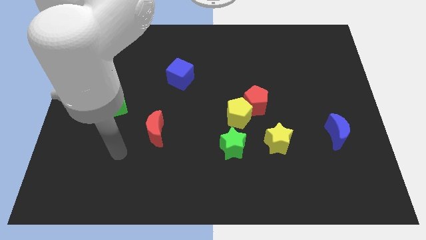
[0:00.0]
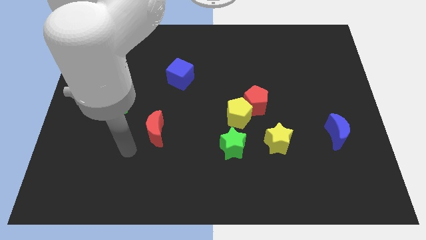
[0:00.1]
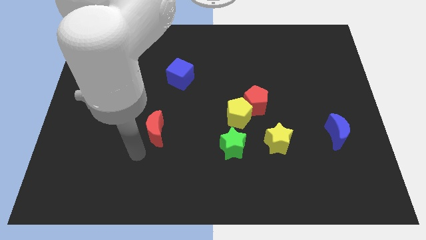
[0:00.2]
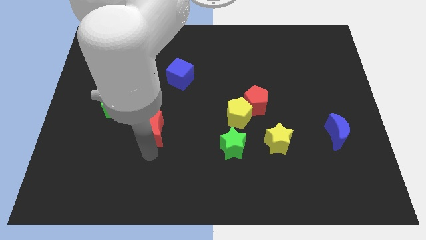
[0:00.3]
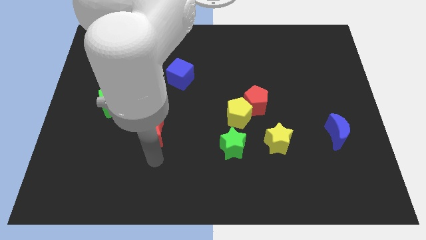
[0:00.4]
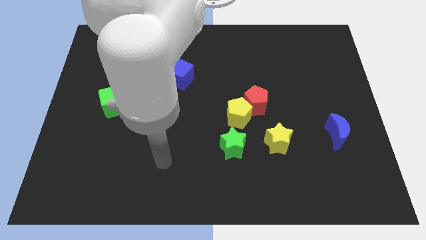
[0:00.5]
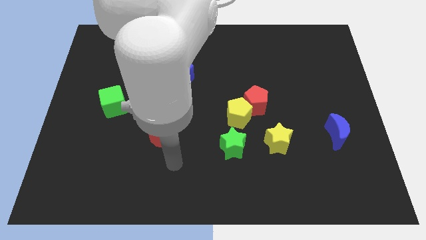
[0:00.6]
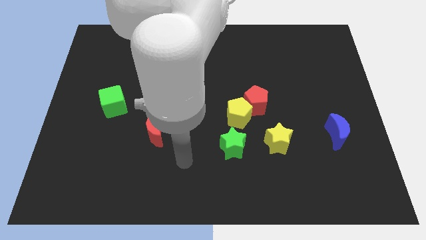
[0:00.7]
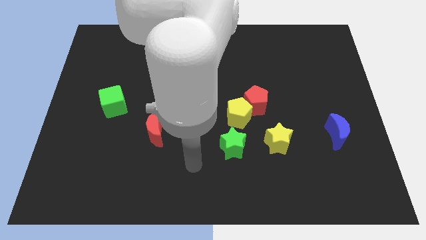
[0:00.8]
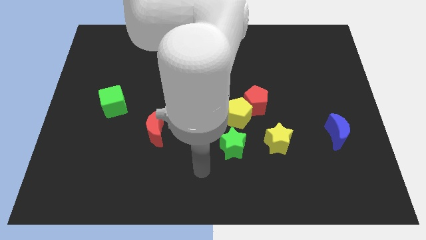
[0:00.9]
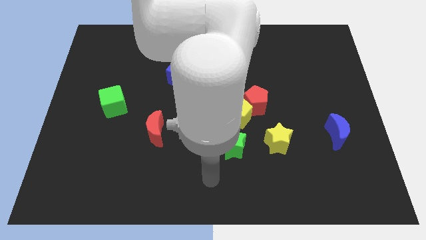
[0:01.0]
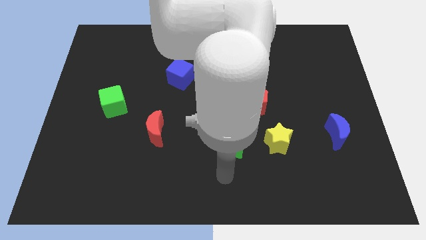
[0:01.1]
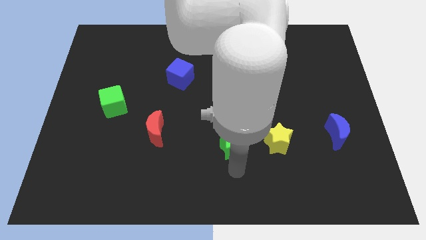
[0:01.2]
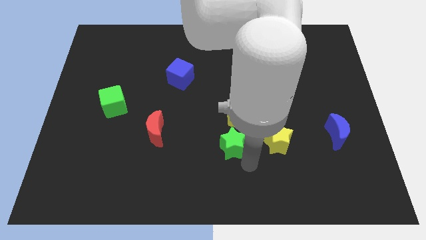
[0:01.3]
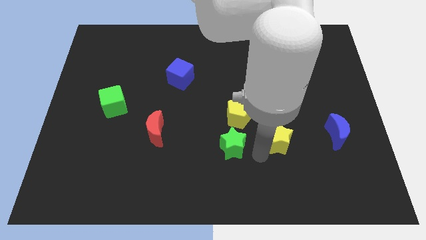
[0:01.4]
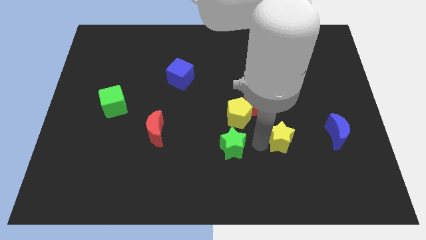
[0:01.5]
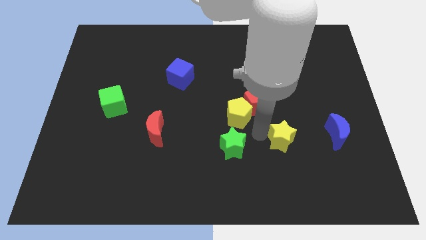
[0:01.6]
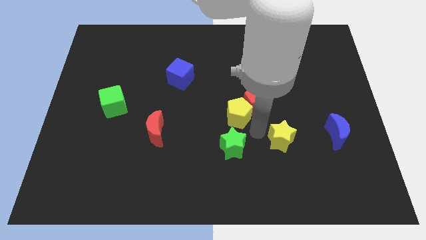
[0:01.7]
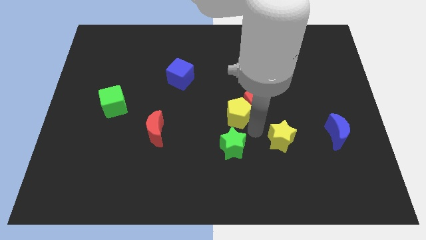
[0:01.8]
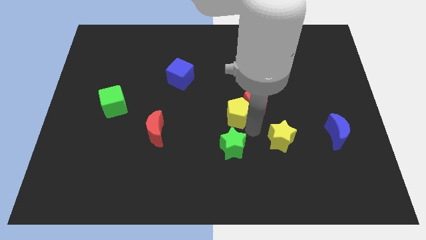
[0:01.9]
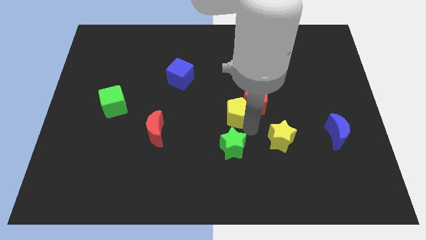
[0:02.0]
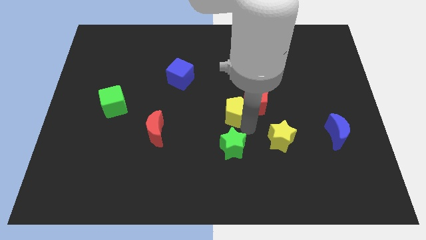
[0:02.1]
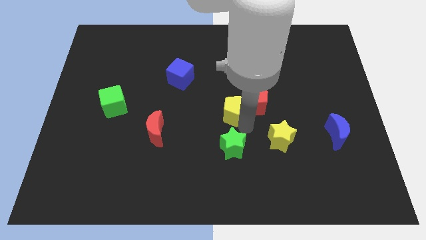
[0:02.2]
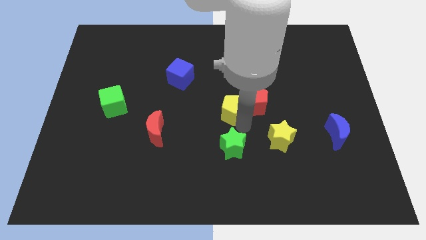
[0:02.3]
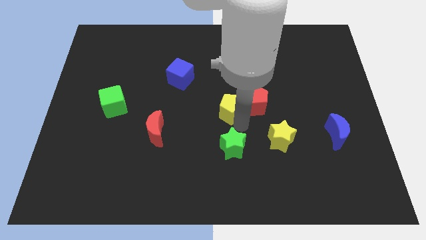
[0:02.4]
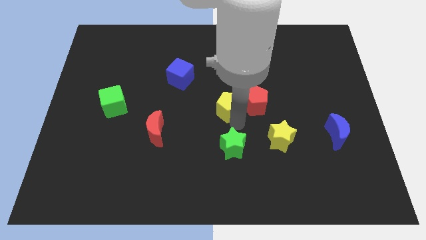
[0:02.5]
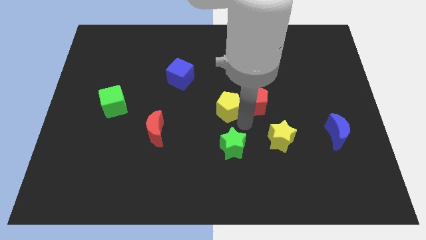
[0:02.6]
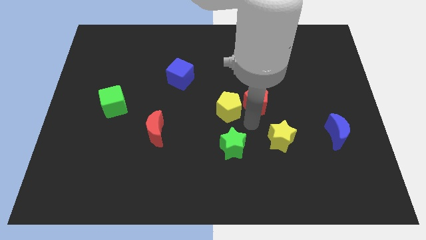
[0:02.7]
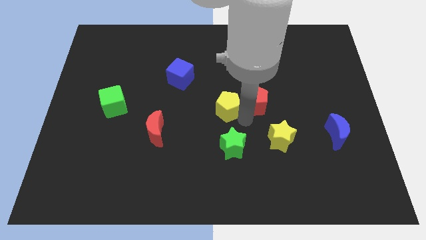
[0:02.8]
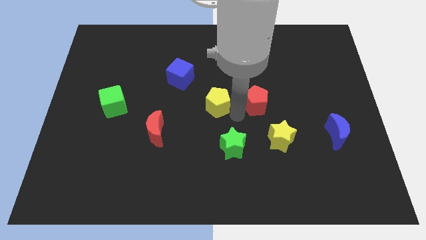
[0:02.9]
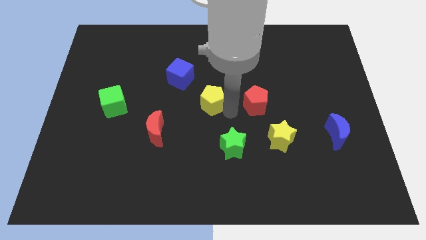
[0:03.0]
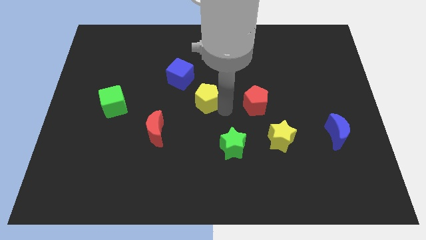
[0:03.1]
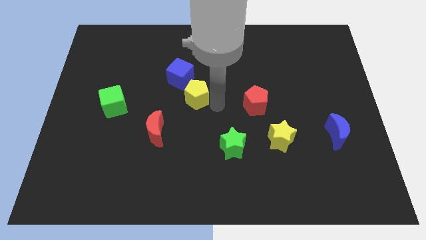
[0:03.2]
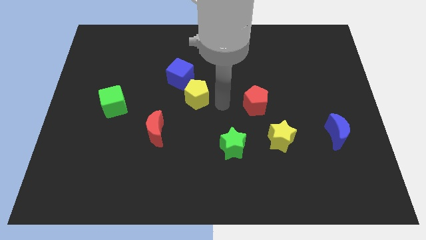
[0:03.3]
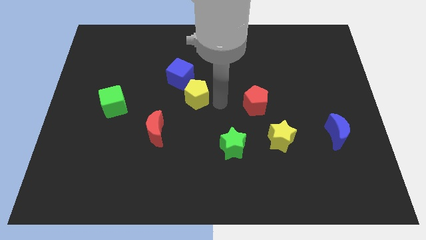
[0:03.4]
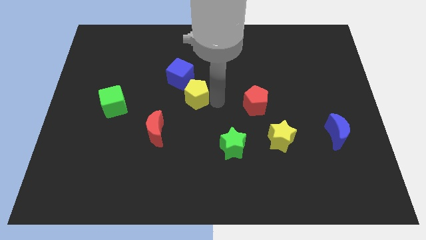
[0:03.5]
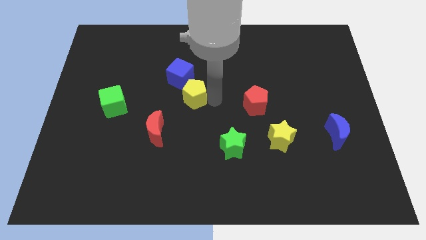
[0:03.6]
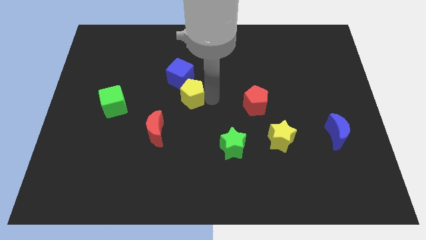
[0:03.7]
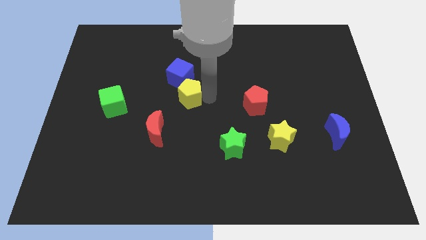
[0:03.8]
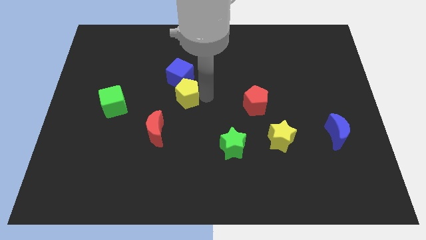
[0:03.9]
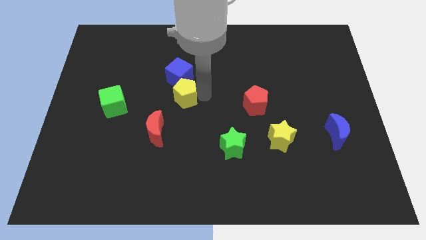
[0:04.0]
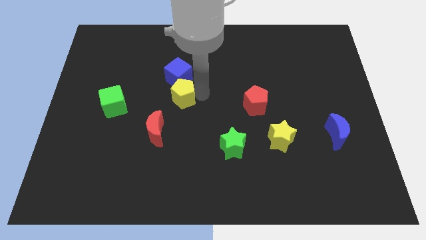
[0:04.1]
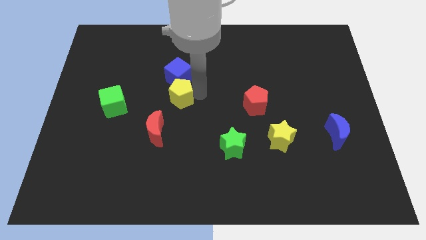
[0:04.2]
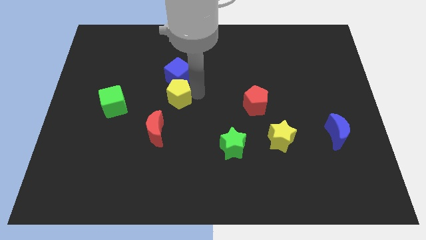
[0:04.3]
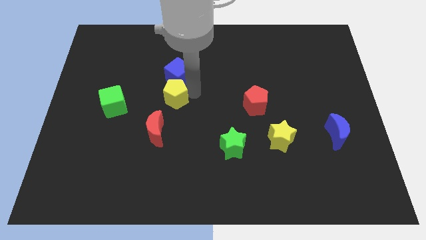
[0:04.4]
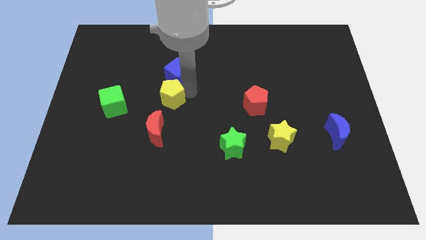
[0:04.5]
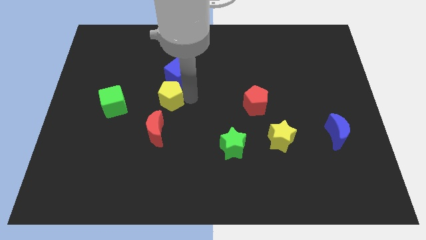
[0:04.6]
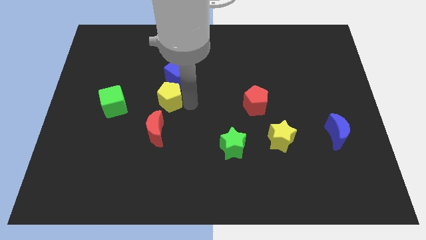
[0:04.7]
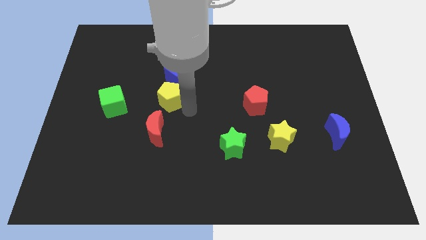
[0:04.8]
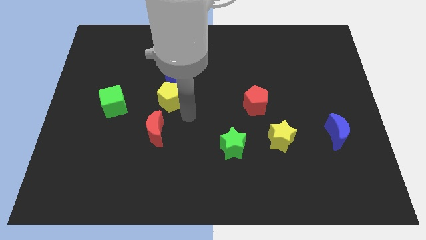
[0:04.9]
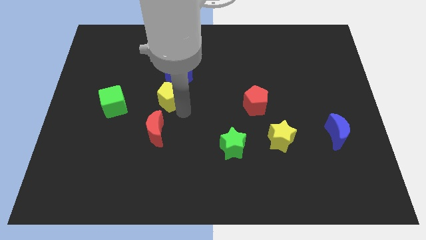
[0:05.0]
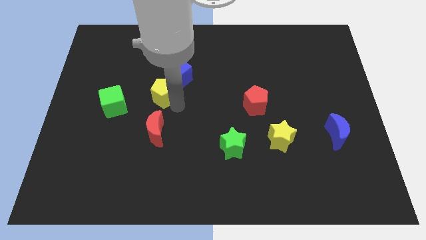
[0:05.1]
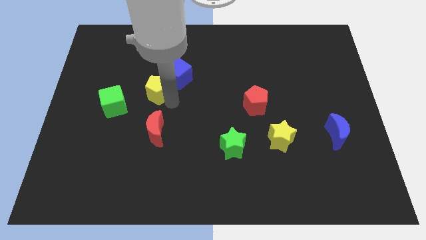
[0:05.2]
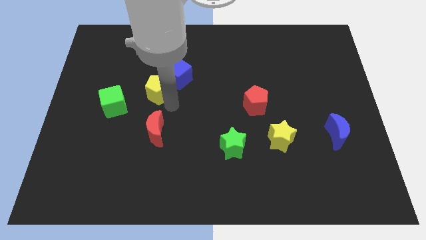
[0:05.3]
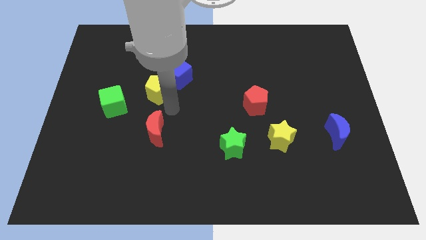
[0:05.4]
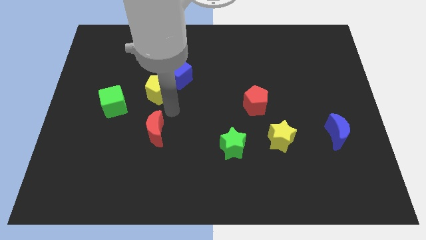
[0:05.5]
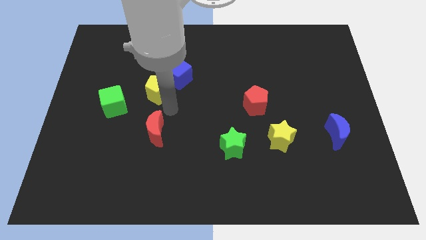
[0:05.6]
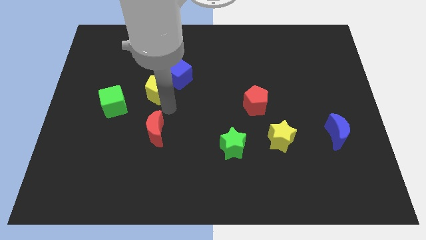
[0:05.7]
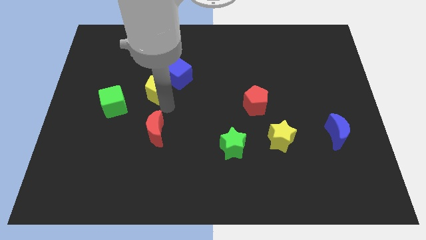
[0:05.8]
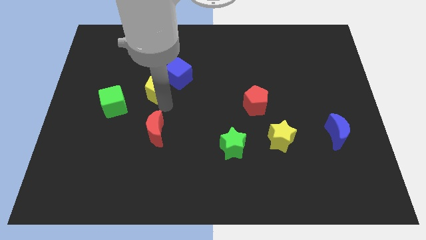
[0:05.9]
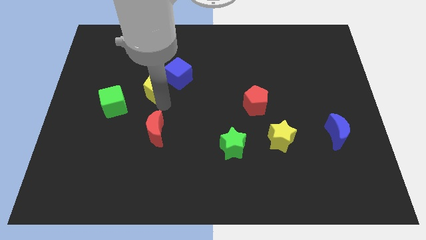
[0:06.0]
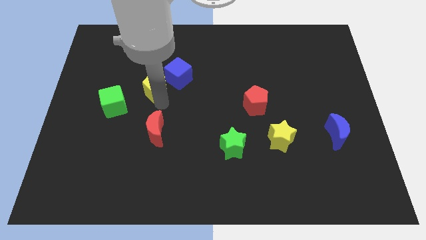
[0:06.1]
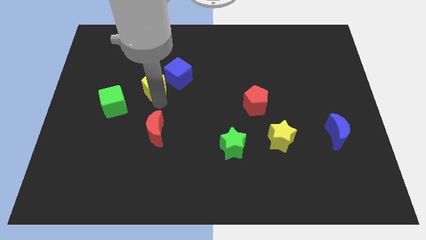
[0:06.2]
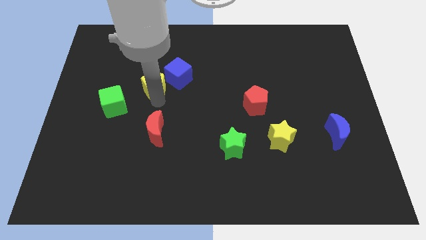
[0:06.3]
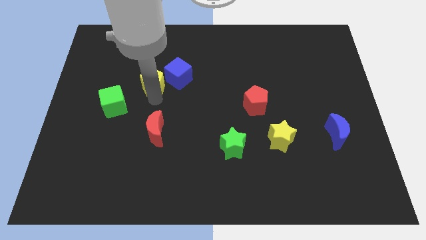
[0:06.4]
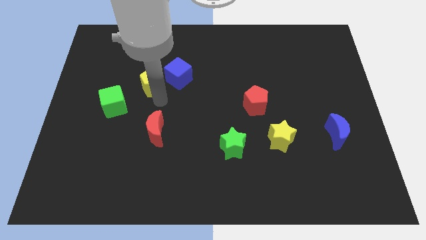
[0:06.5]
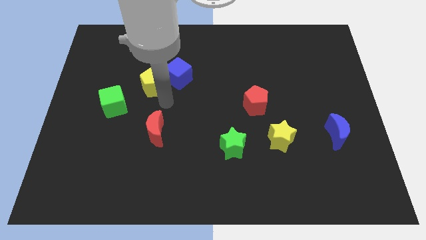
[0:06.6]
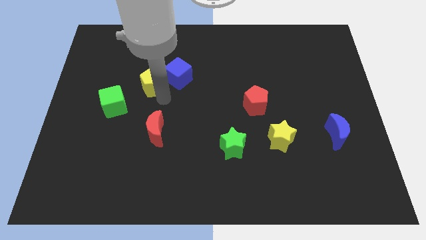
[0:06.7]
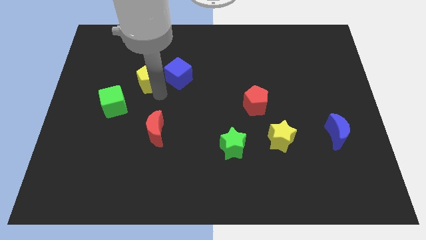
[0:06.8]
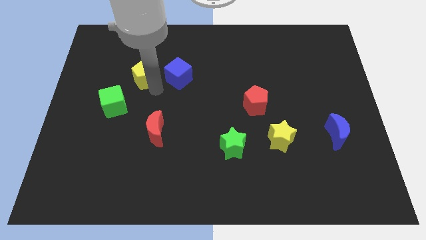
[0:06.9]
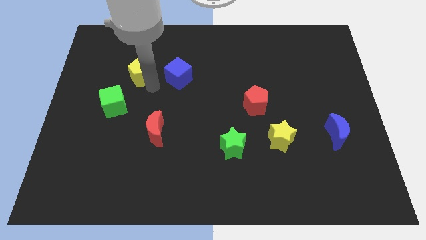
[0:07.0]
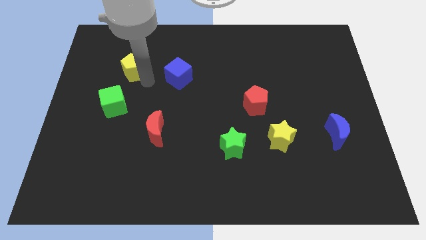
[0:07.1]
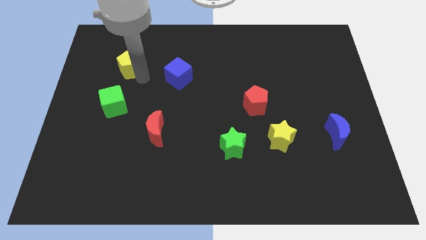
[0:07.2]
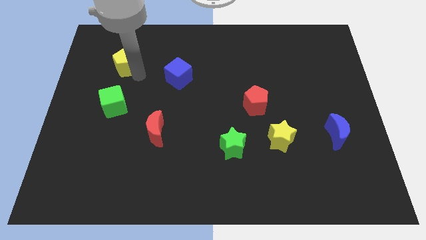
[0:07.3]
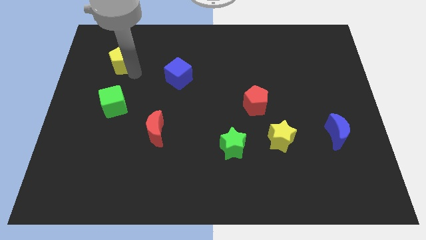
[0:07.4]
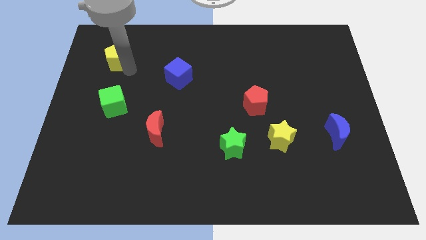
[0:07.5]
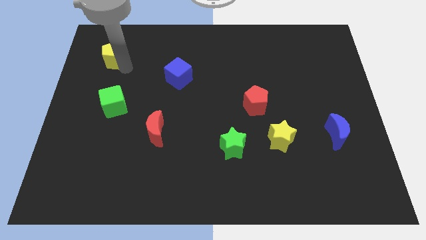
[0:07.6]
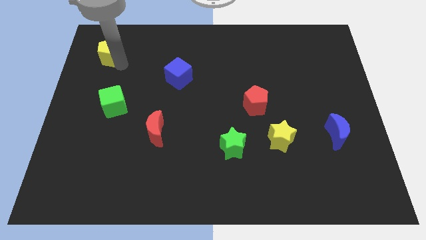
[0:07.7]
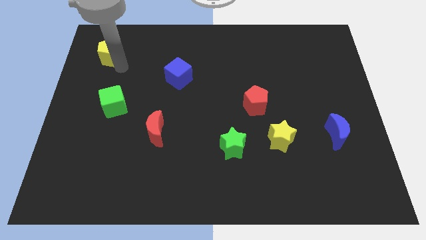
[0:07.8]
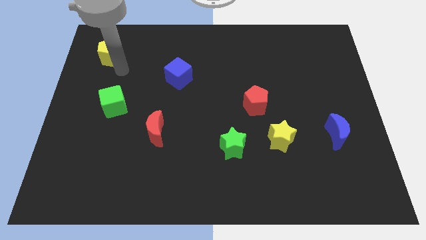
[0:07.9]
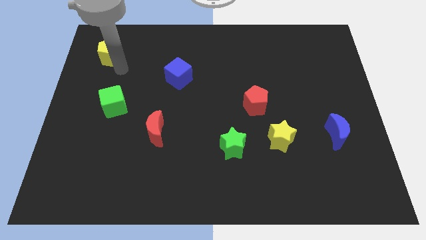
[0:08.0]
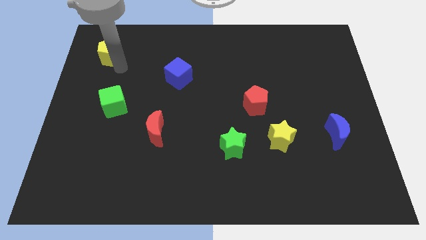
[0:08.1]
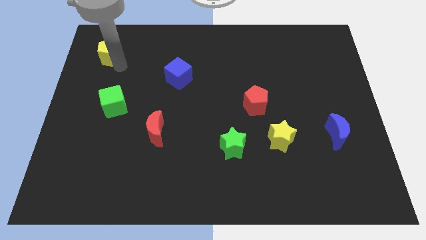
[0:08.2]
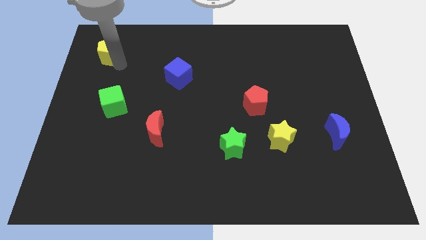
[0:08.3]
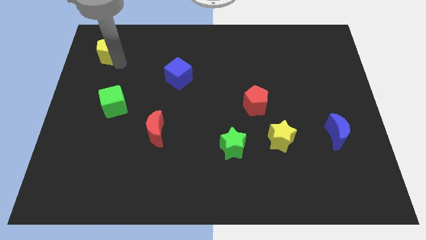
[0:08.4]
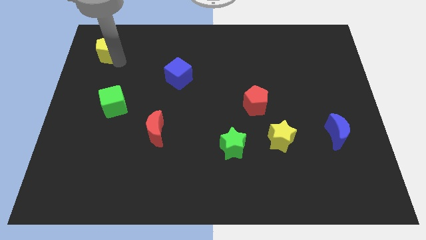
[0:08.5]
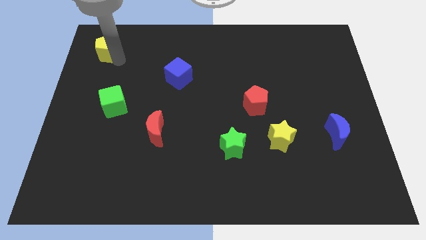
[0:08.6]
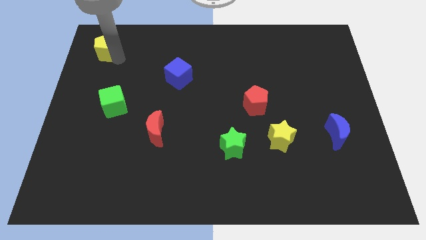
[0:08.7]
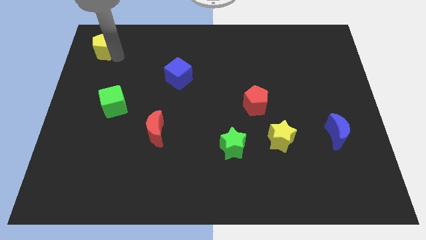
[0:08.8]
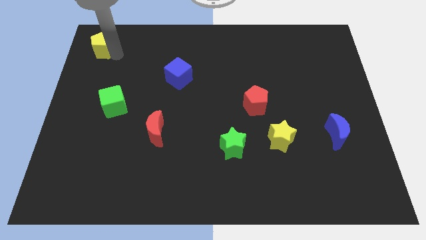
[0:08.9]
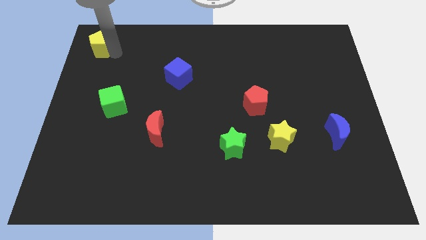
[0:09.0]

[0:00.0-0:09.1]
push the yellow pentagon to the top left of the board
